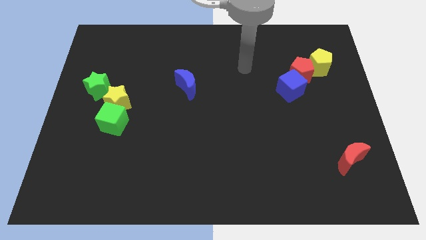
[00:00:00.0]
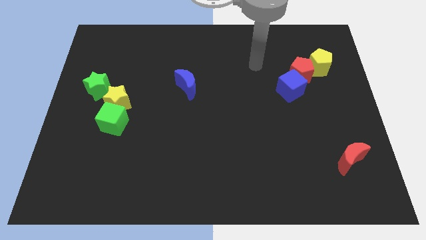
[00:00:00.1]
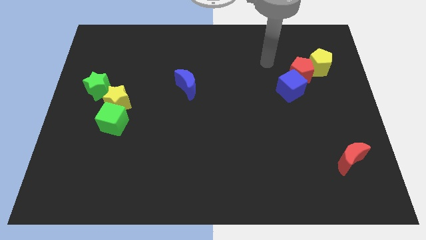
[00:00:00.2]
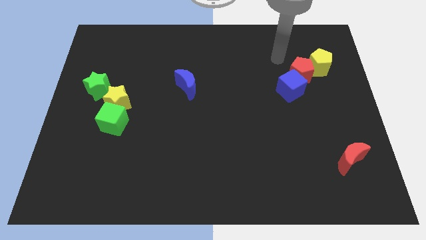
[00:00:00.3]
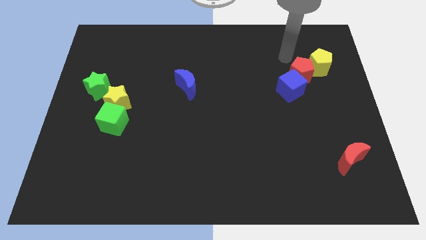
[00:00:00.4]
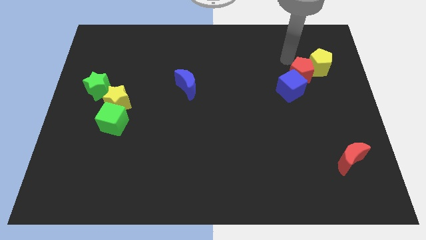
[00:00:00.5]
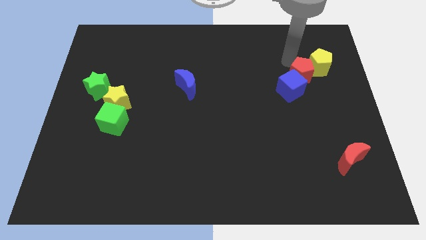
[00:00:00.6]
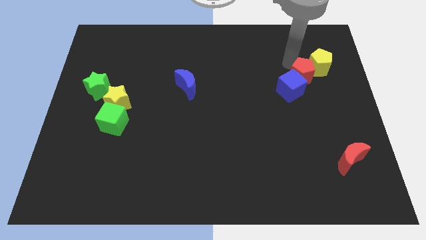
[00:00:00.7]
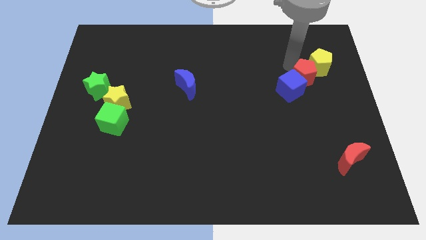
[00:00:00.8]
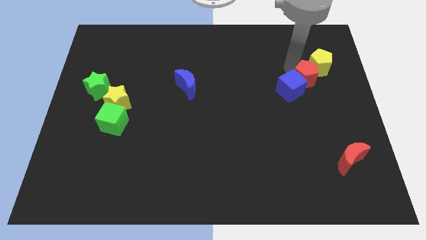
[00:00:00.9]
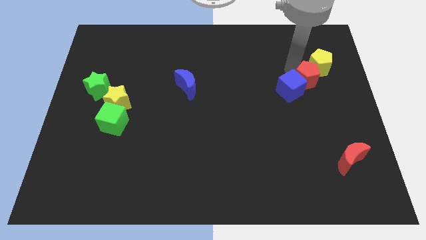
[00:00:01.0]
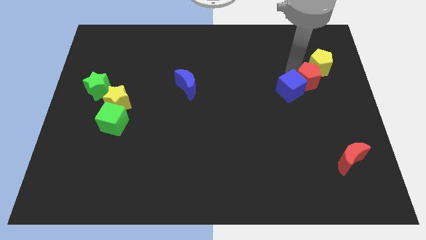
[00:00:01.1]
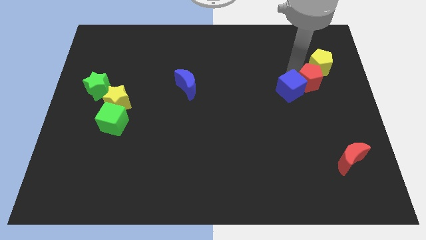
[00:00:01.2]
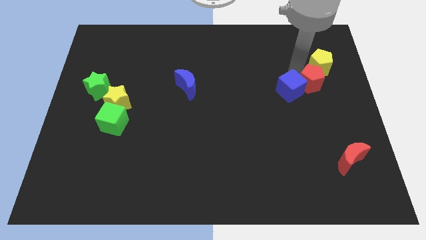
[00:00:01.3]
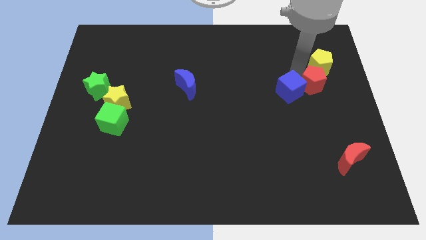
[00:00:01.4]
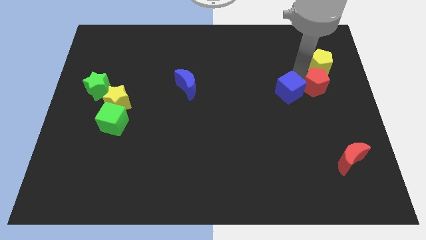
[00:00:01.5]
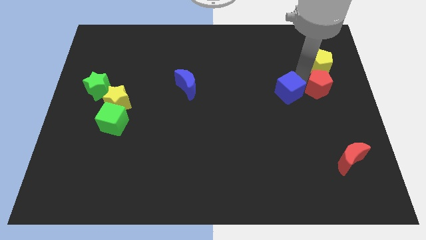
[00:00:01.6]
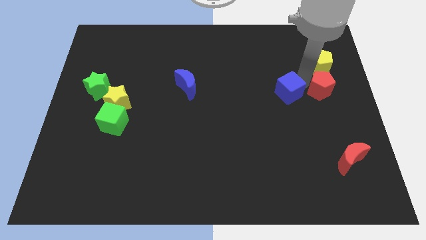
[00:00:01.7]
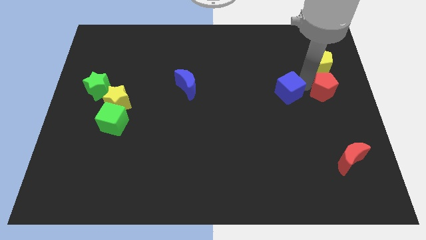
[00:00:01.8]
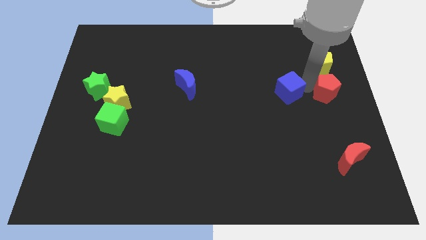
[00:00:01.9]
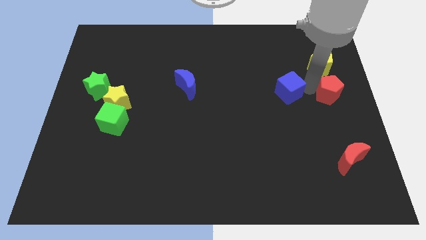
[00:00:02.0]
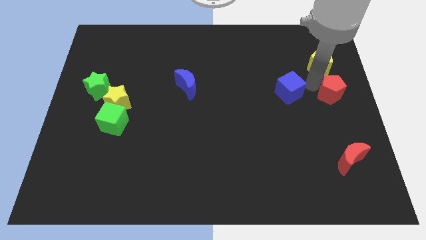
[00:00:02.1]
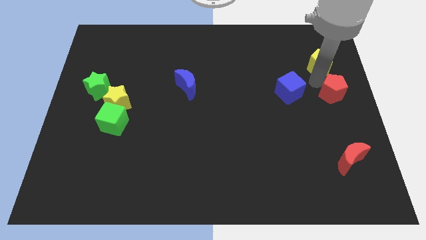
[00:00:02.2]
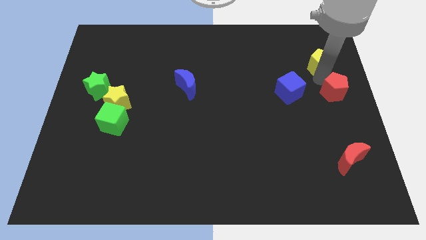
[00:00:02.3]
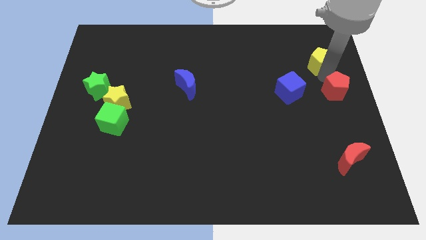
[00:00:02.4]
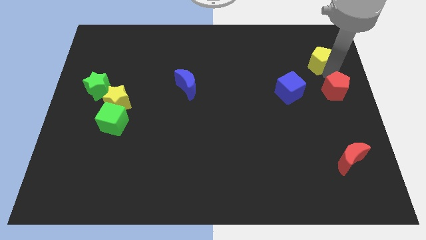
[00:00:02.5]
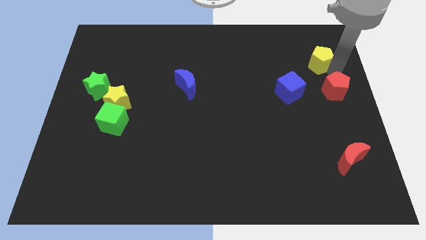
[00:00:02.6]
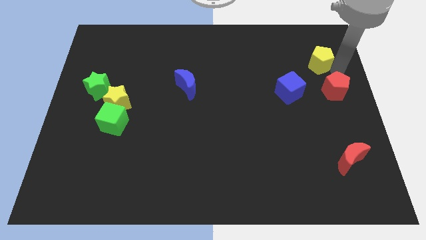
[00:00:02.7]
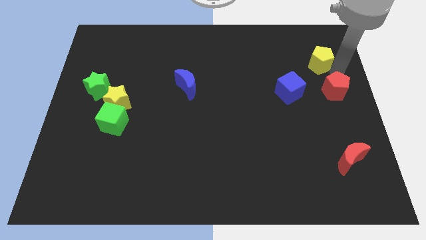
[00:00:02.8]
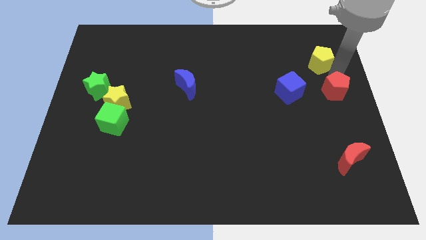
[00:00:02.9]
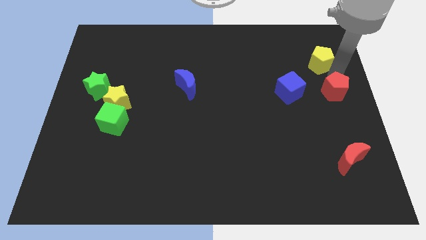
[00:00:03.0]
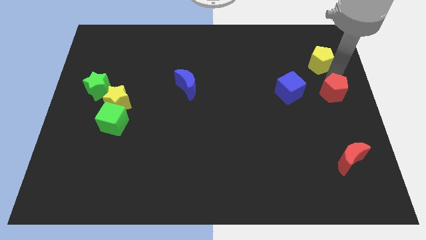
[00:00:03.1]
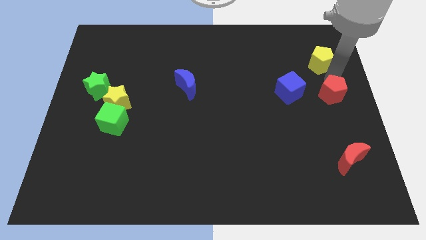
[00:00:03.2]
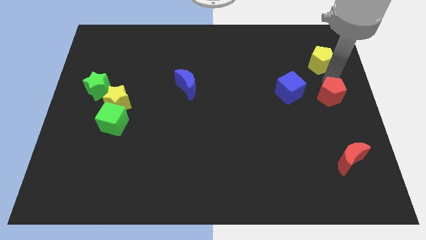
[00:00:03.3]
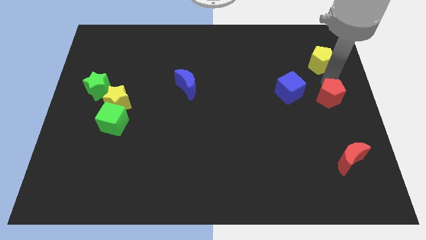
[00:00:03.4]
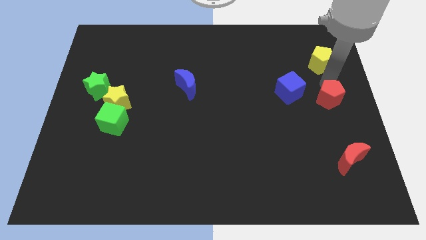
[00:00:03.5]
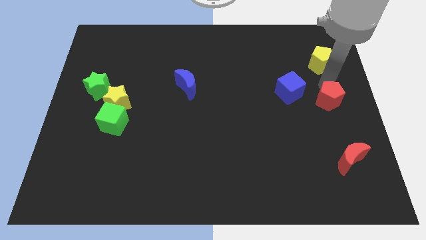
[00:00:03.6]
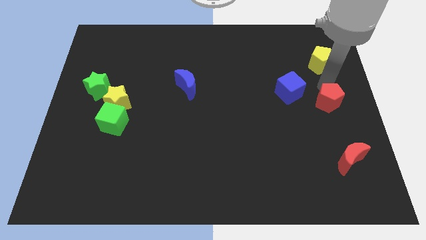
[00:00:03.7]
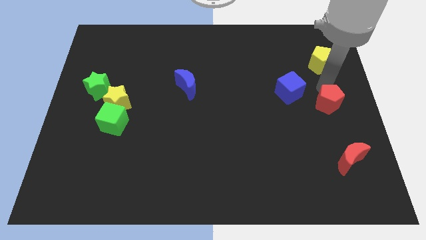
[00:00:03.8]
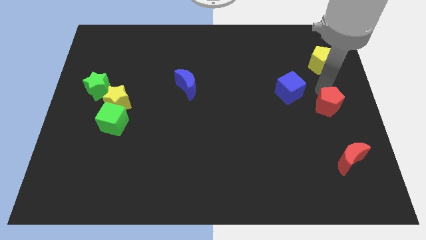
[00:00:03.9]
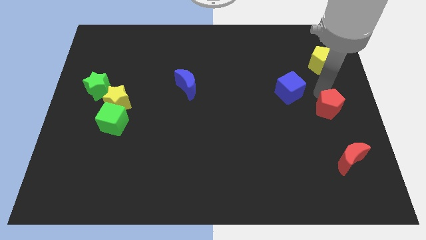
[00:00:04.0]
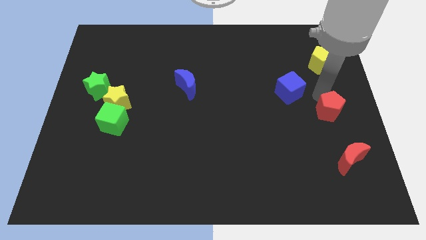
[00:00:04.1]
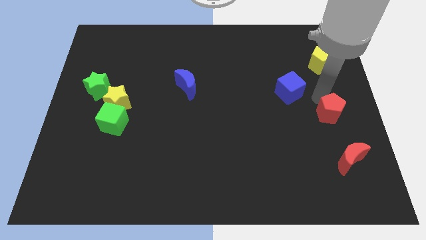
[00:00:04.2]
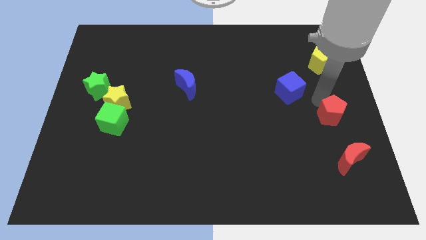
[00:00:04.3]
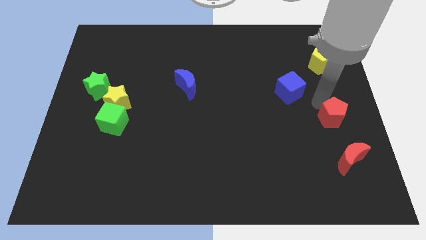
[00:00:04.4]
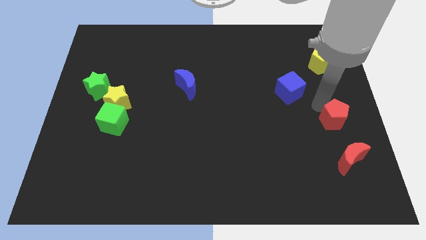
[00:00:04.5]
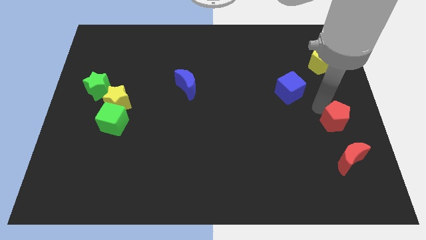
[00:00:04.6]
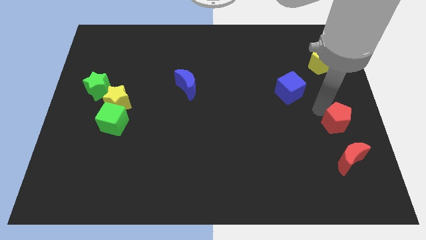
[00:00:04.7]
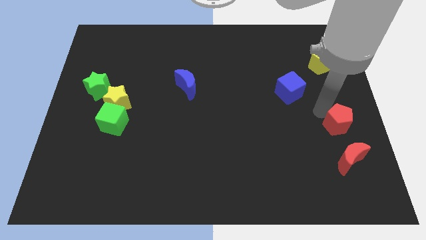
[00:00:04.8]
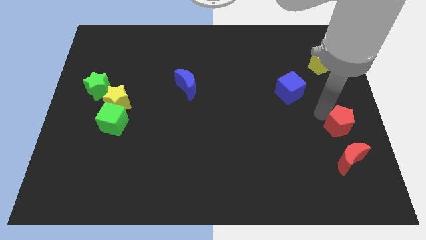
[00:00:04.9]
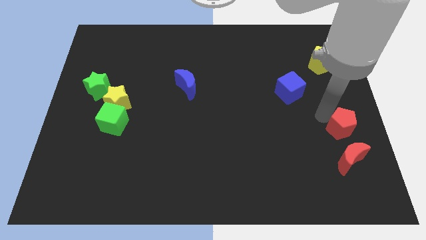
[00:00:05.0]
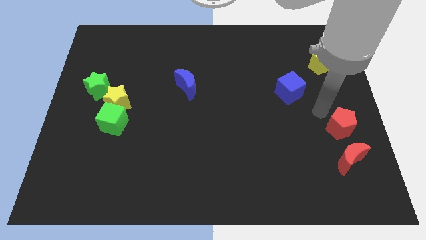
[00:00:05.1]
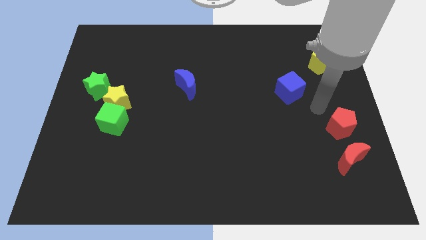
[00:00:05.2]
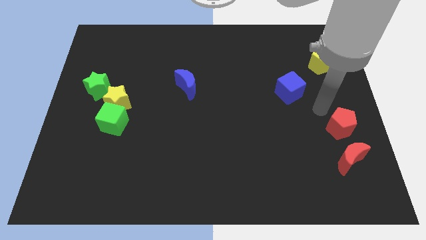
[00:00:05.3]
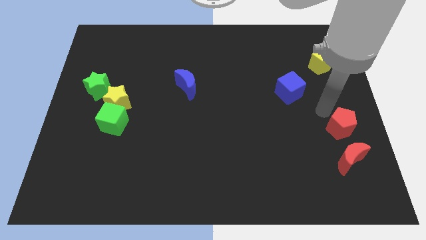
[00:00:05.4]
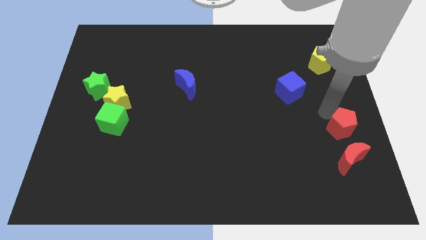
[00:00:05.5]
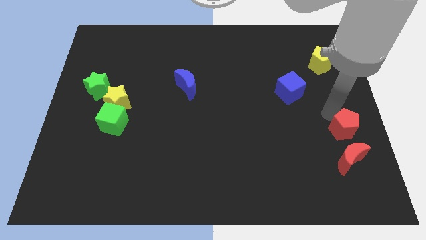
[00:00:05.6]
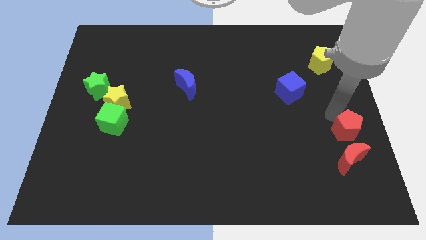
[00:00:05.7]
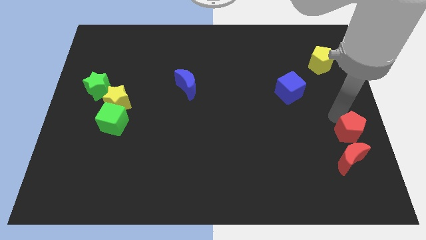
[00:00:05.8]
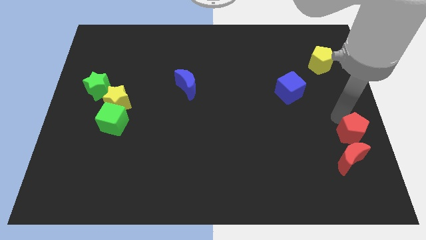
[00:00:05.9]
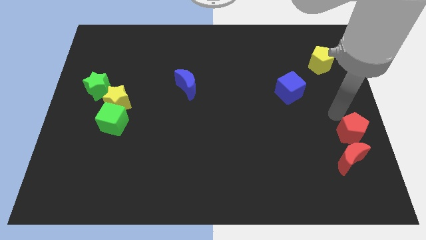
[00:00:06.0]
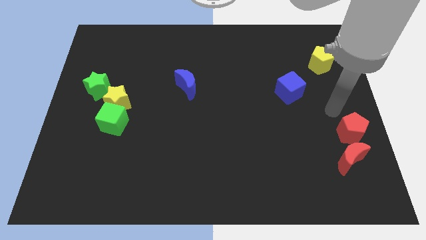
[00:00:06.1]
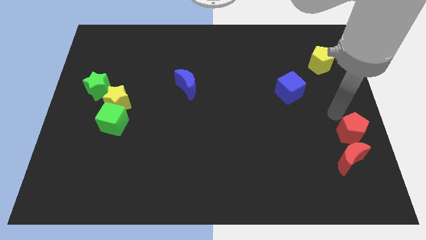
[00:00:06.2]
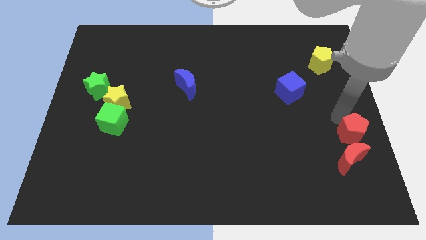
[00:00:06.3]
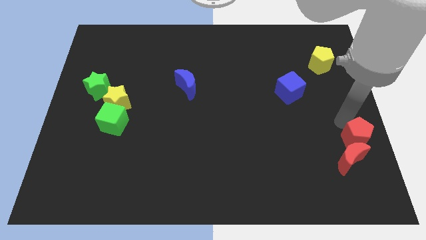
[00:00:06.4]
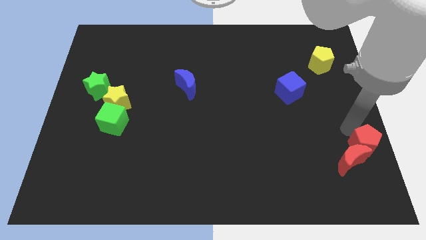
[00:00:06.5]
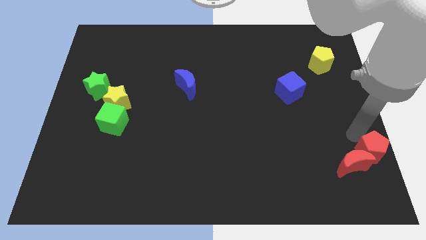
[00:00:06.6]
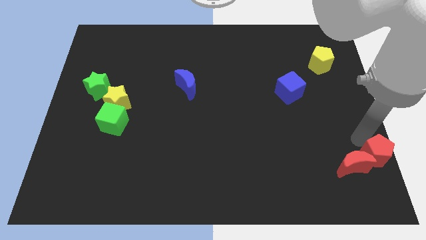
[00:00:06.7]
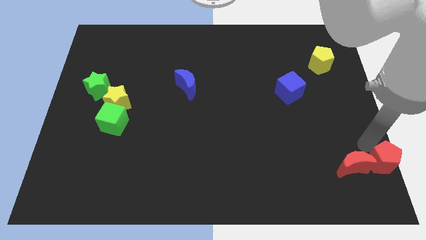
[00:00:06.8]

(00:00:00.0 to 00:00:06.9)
move the red pentagon to the bottom right corner

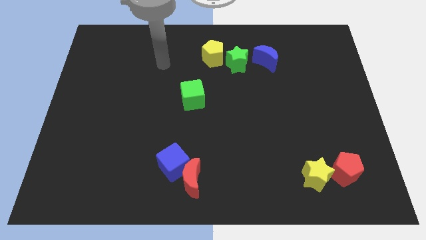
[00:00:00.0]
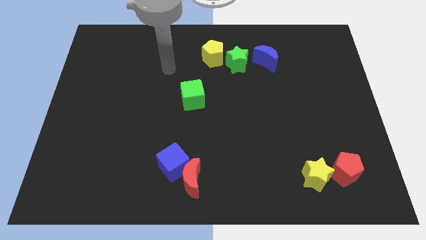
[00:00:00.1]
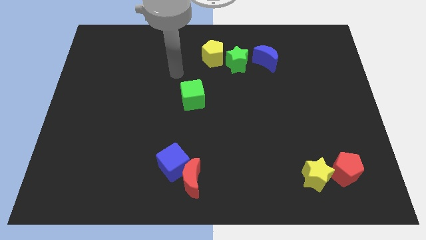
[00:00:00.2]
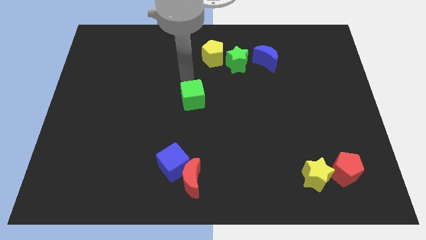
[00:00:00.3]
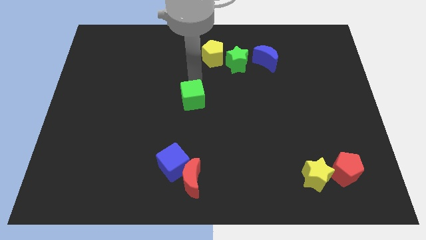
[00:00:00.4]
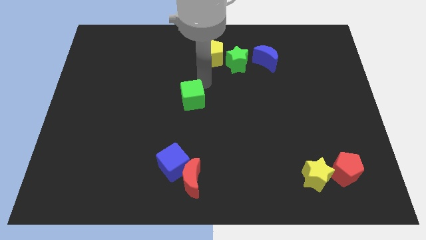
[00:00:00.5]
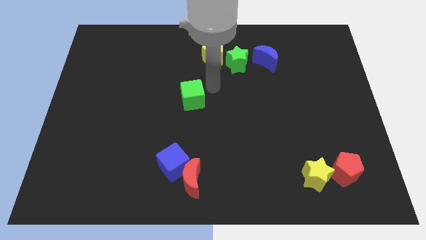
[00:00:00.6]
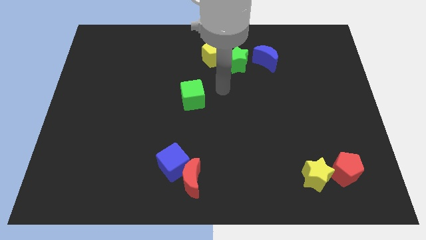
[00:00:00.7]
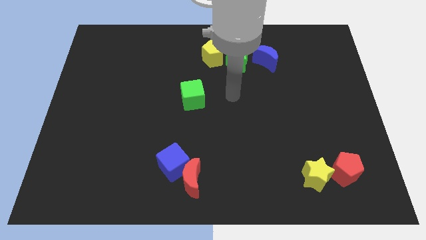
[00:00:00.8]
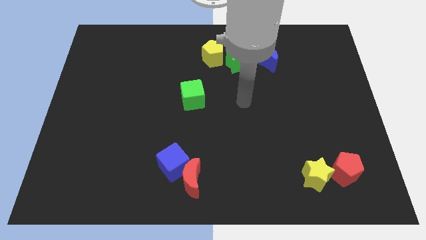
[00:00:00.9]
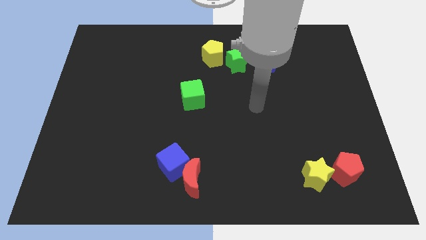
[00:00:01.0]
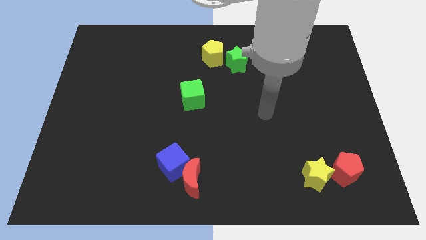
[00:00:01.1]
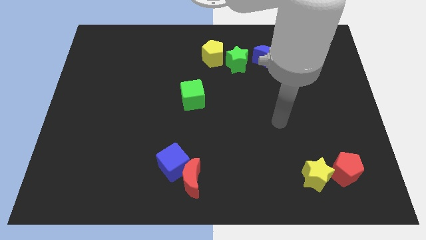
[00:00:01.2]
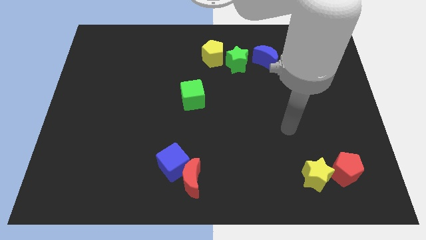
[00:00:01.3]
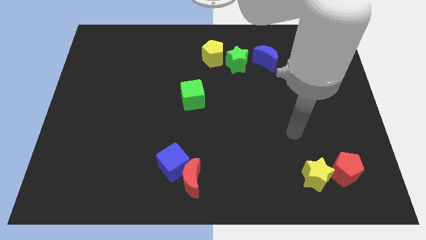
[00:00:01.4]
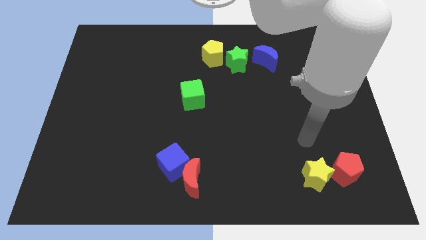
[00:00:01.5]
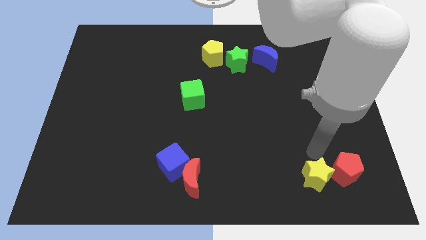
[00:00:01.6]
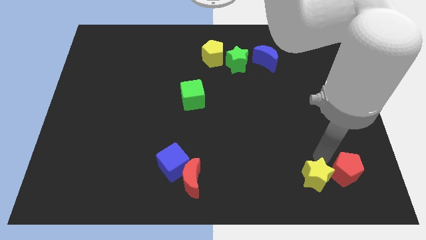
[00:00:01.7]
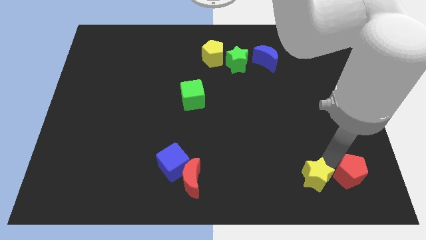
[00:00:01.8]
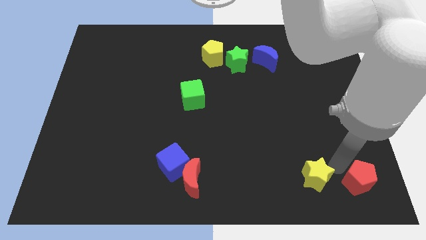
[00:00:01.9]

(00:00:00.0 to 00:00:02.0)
put the red pentagon to the bottom right corner
